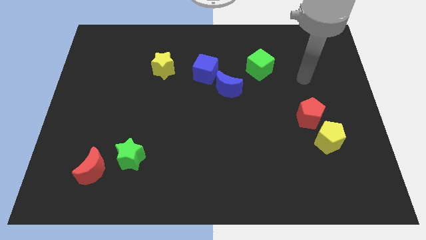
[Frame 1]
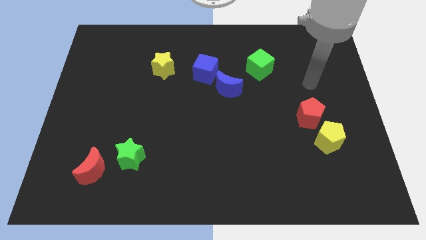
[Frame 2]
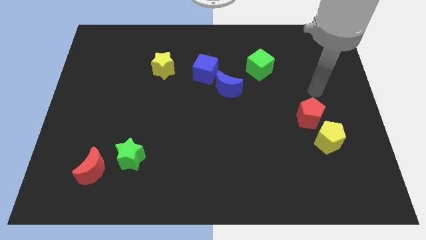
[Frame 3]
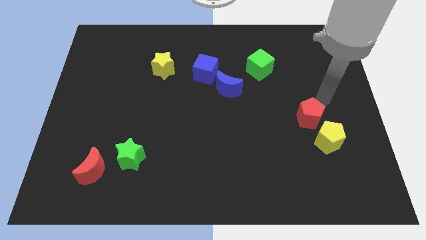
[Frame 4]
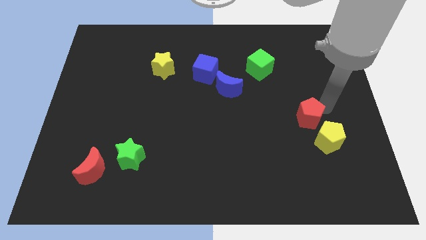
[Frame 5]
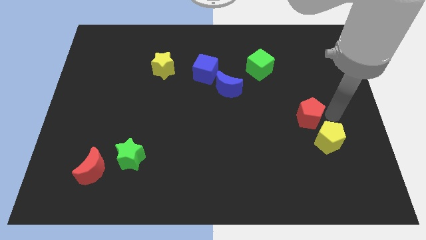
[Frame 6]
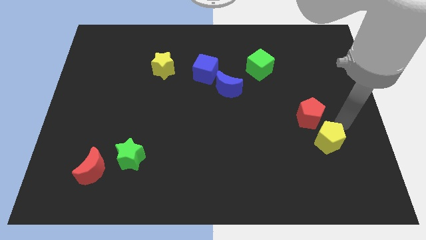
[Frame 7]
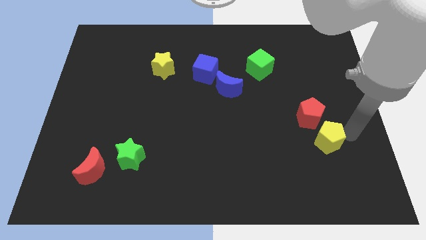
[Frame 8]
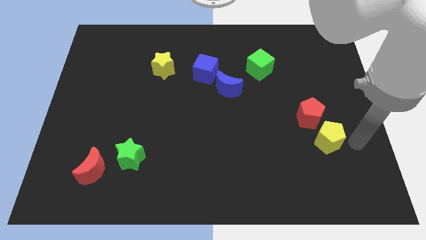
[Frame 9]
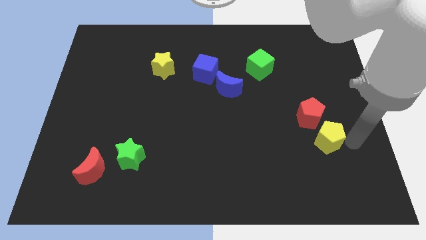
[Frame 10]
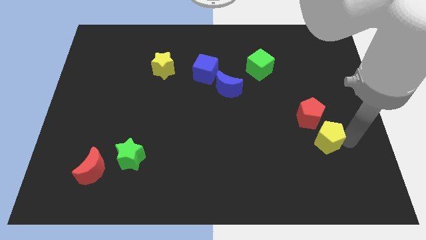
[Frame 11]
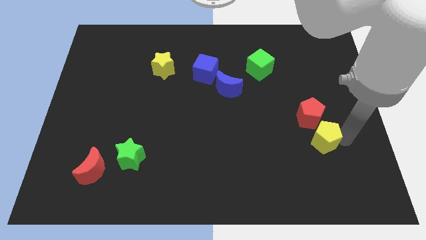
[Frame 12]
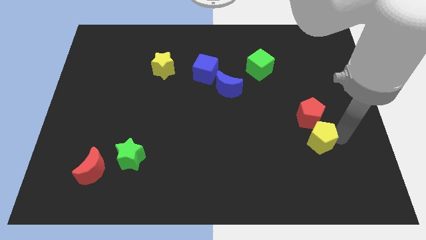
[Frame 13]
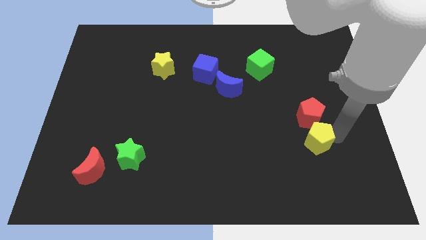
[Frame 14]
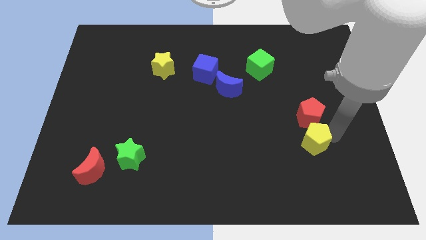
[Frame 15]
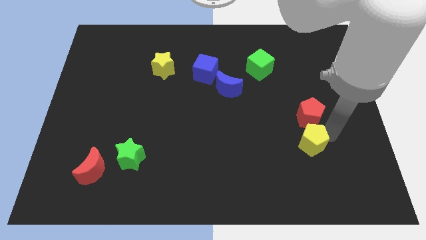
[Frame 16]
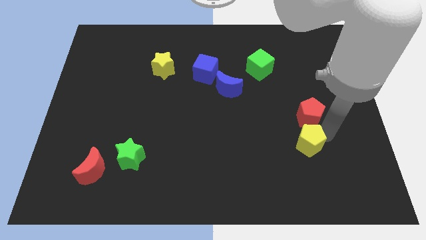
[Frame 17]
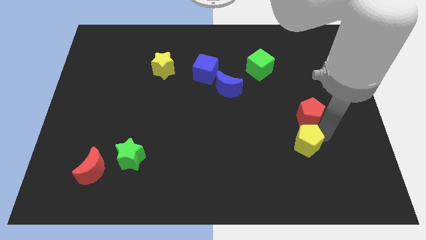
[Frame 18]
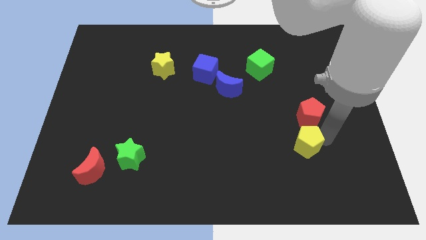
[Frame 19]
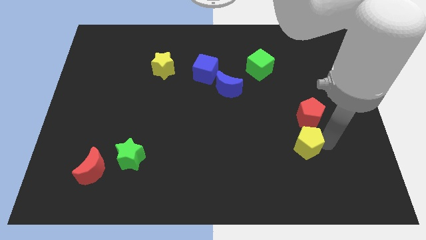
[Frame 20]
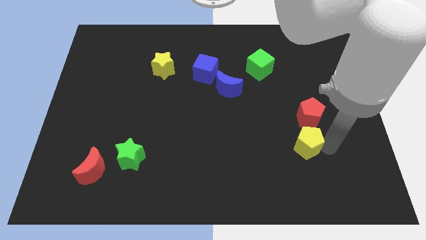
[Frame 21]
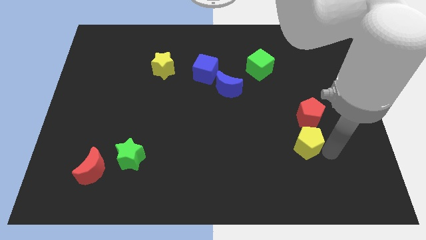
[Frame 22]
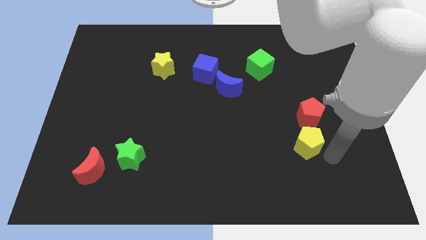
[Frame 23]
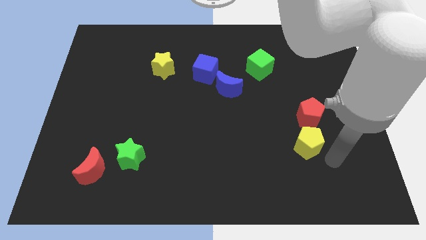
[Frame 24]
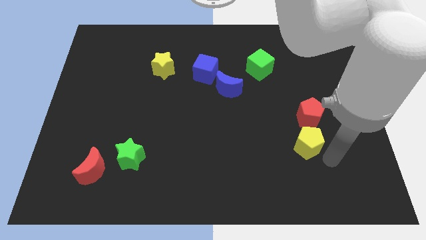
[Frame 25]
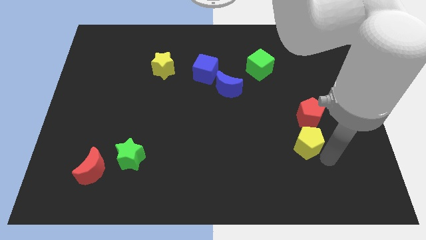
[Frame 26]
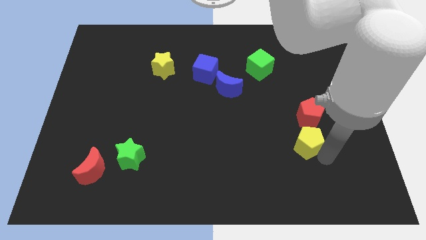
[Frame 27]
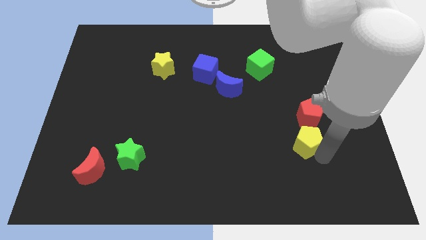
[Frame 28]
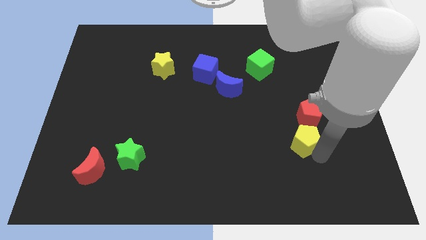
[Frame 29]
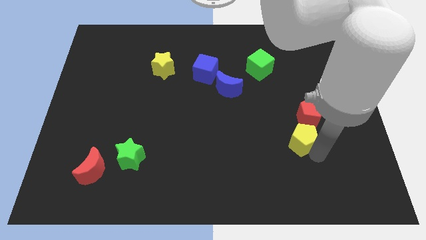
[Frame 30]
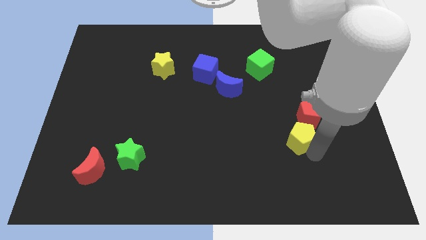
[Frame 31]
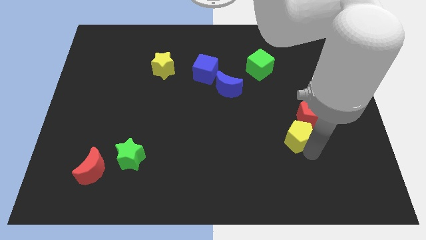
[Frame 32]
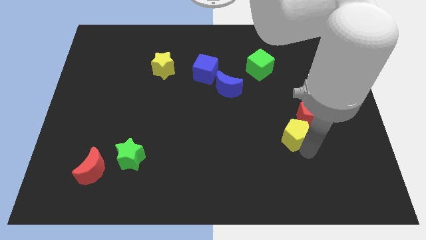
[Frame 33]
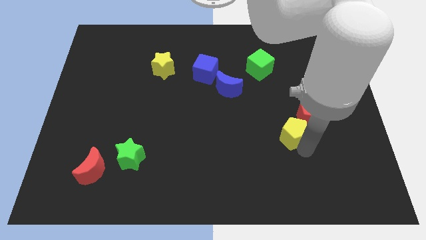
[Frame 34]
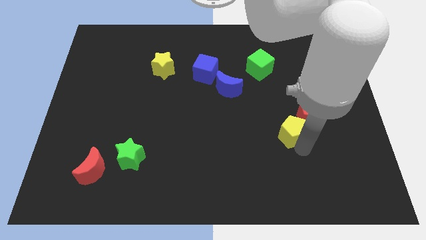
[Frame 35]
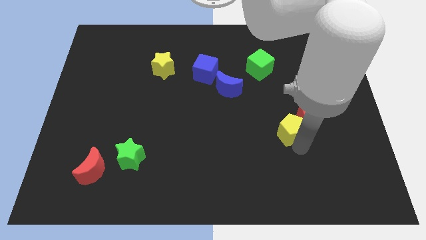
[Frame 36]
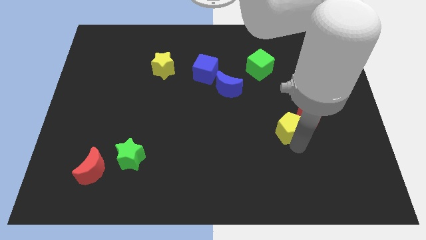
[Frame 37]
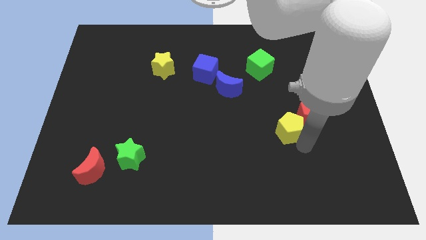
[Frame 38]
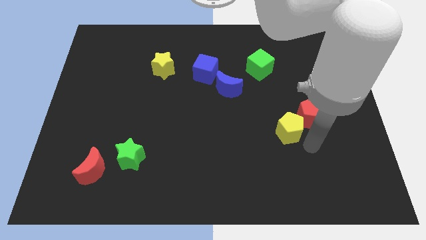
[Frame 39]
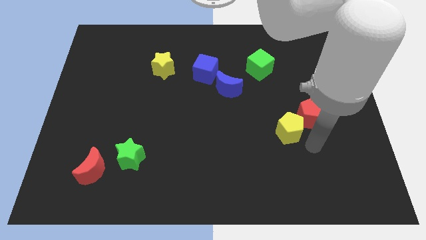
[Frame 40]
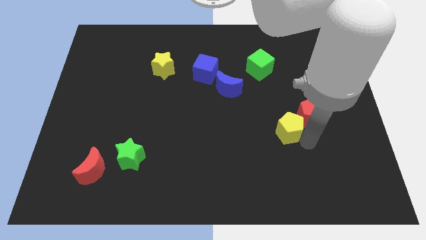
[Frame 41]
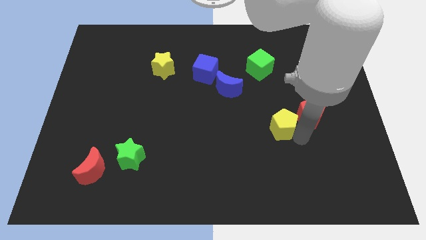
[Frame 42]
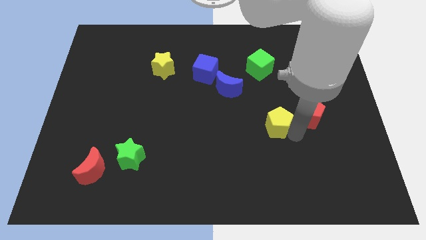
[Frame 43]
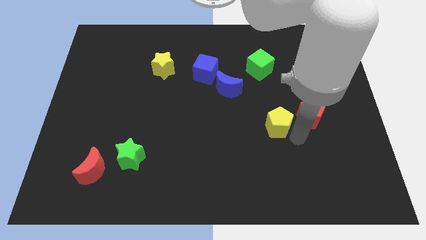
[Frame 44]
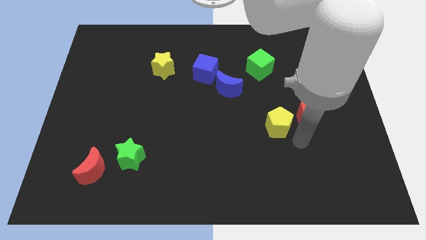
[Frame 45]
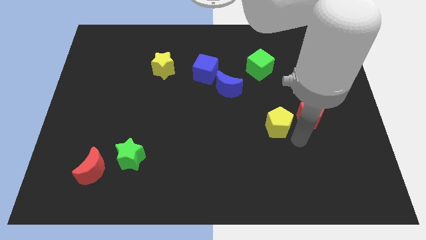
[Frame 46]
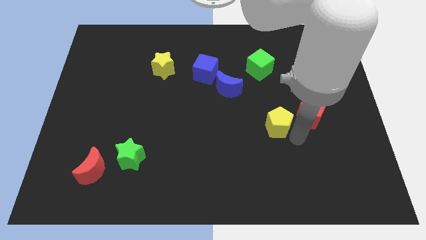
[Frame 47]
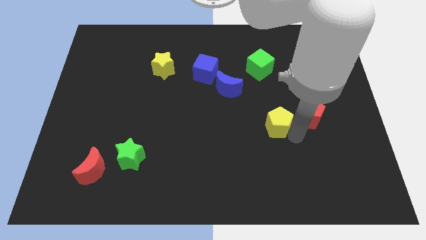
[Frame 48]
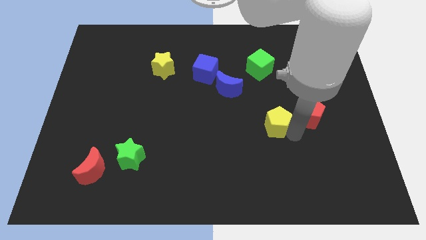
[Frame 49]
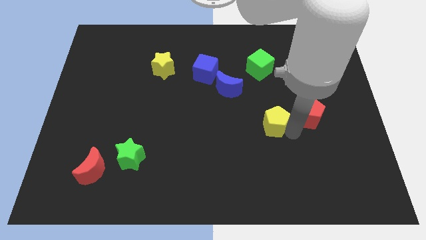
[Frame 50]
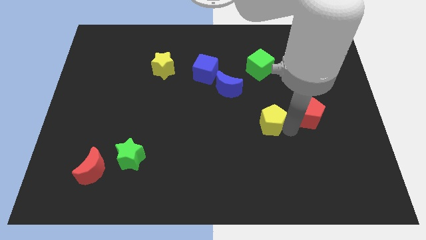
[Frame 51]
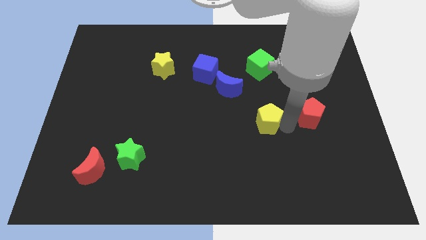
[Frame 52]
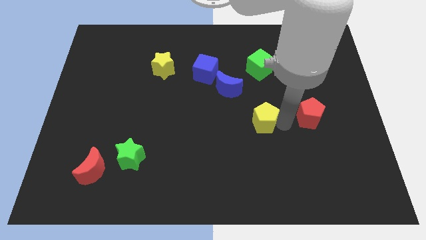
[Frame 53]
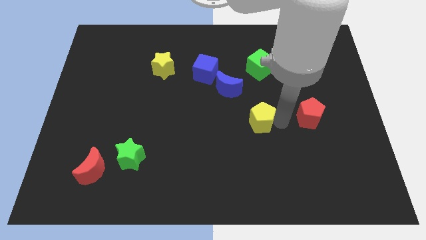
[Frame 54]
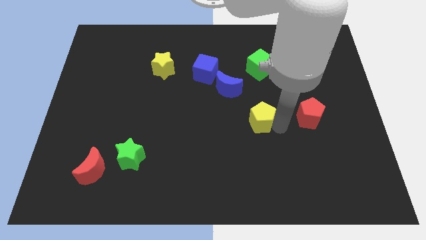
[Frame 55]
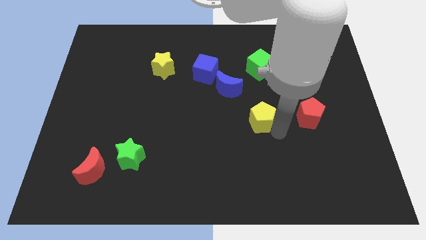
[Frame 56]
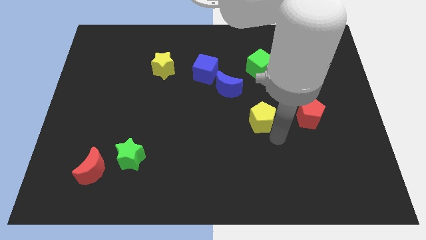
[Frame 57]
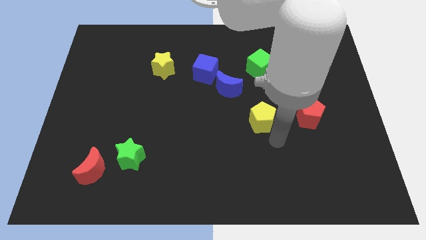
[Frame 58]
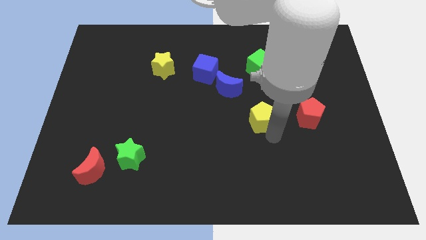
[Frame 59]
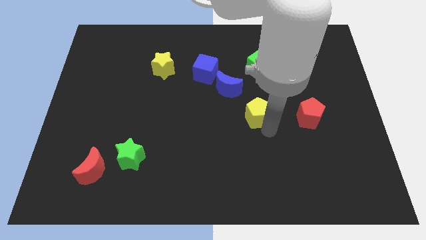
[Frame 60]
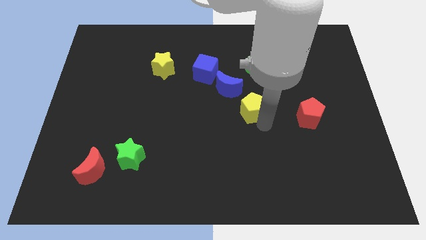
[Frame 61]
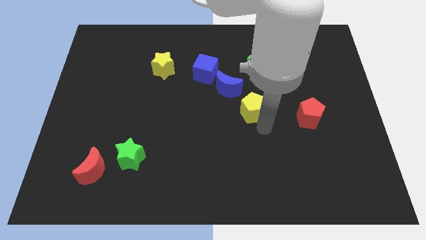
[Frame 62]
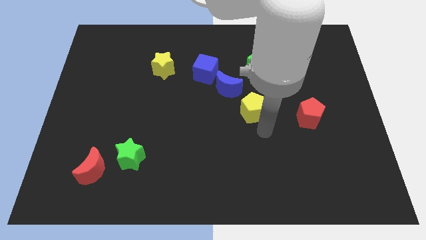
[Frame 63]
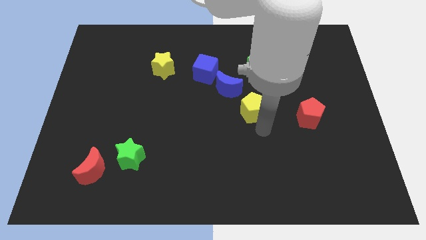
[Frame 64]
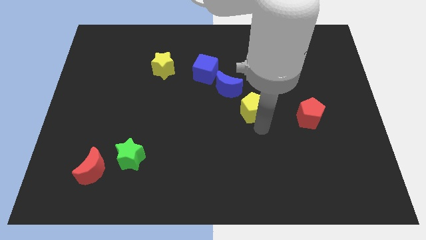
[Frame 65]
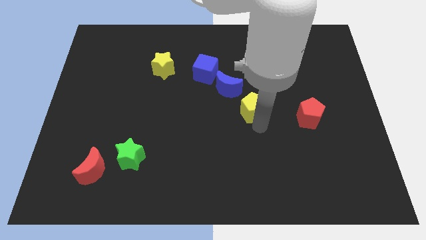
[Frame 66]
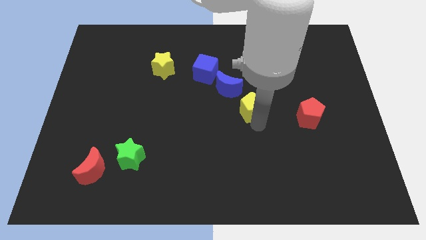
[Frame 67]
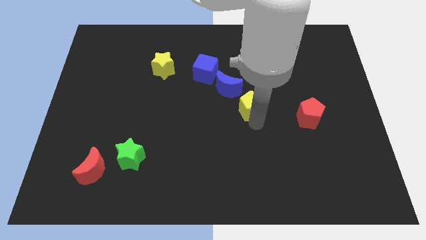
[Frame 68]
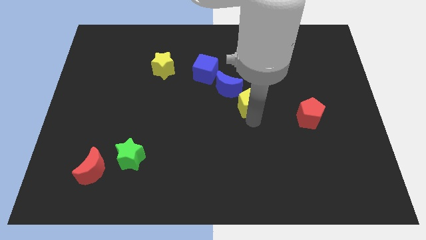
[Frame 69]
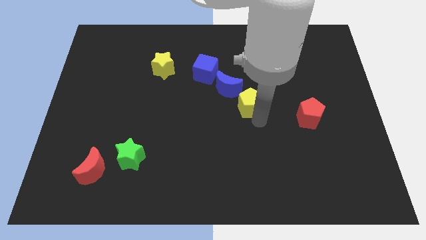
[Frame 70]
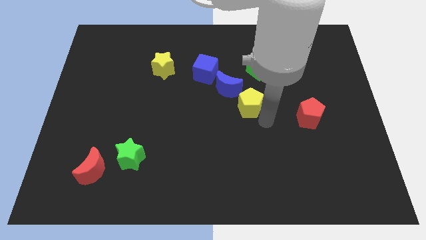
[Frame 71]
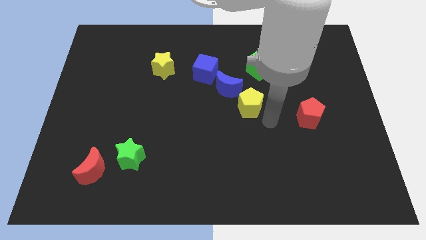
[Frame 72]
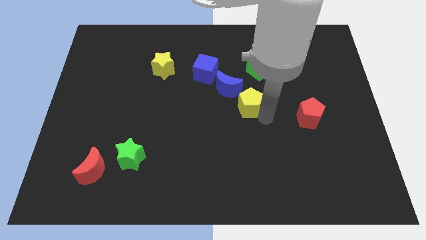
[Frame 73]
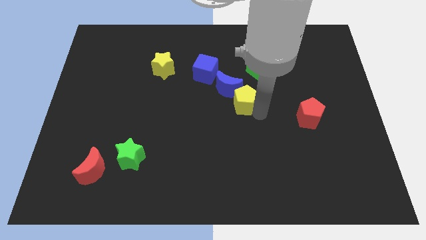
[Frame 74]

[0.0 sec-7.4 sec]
slide the yellow pentagon towards the blue moon

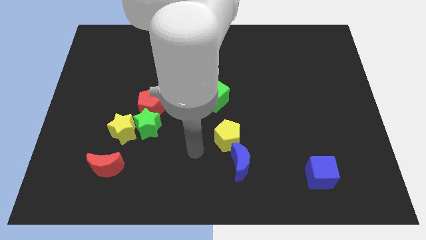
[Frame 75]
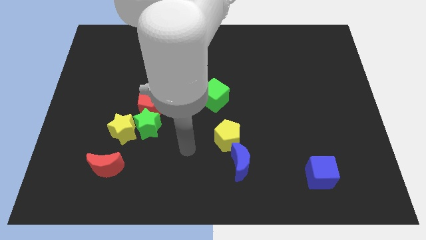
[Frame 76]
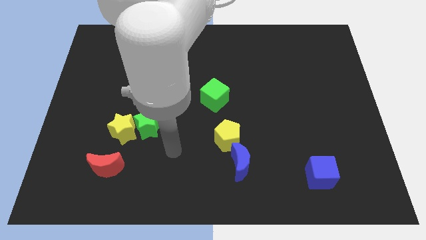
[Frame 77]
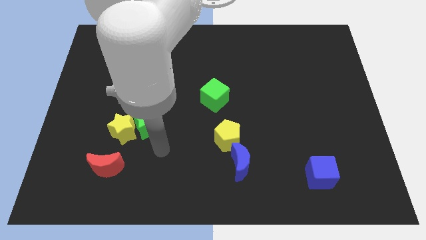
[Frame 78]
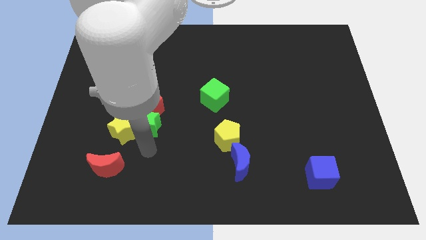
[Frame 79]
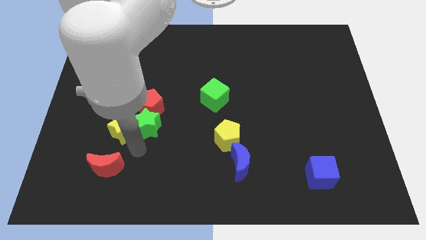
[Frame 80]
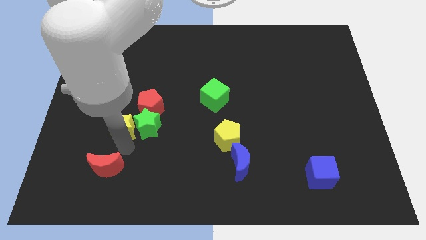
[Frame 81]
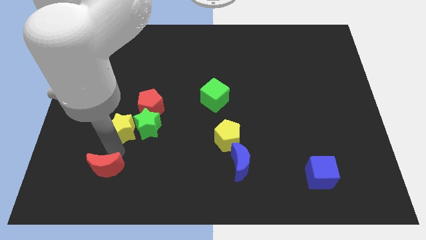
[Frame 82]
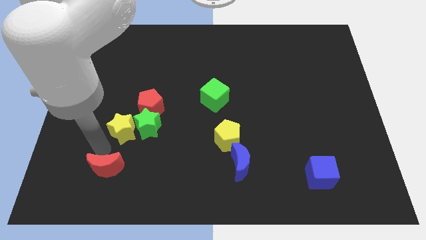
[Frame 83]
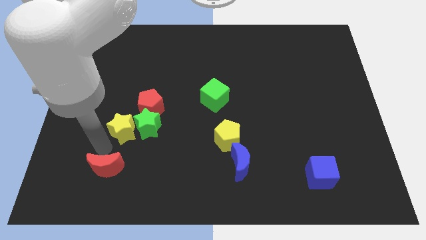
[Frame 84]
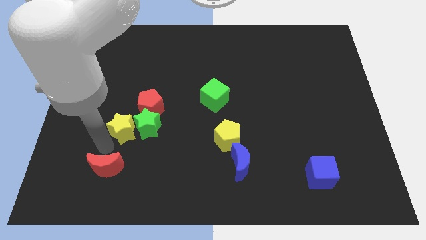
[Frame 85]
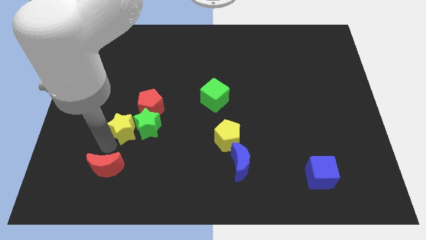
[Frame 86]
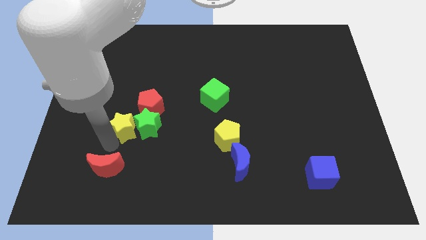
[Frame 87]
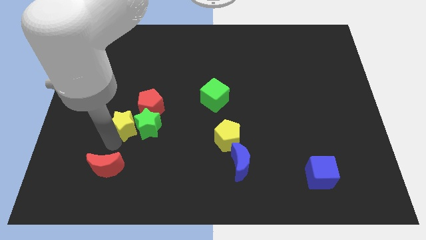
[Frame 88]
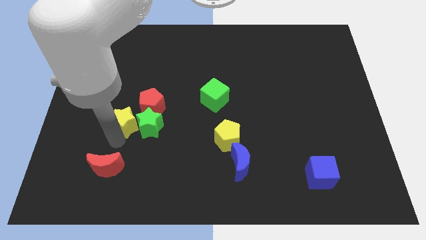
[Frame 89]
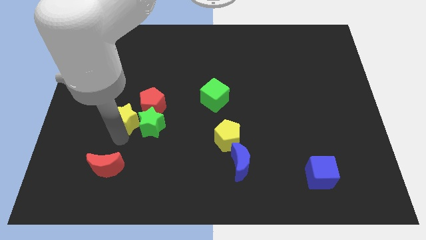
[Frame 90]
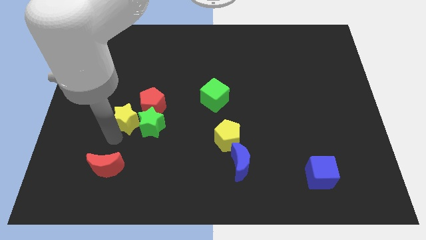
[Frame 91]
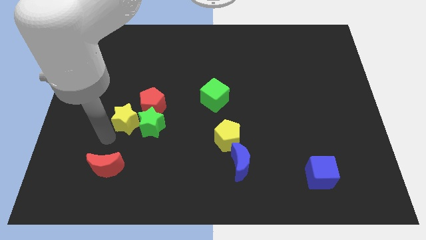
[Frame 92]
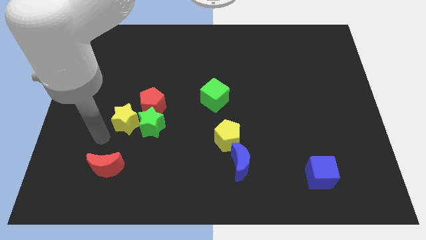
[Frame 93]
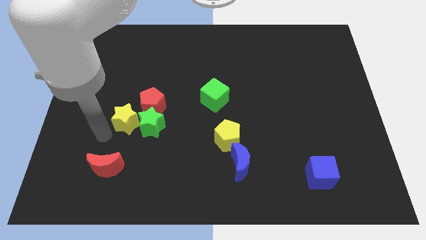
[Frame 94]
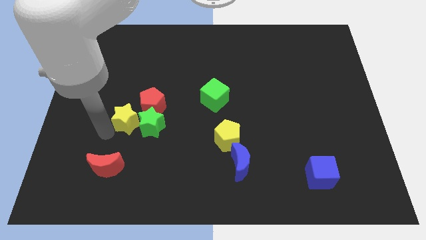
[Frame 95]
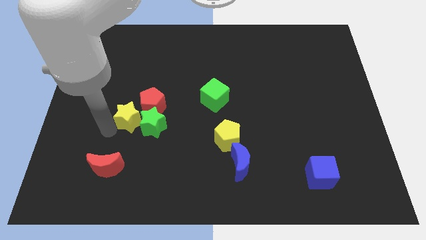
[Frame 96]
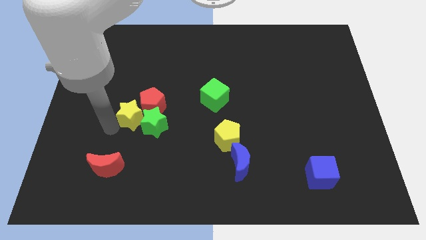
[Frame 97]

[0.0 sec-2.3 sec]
move the yellow star next to the red pentagon
